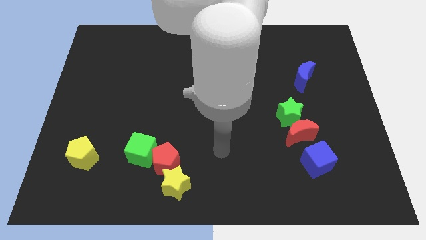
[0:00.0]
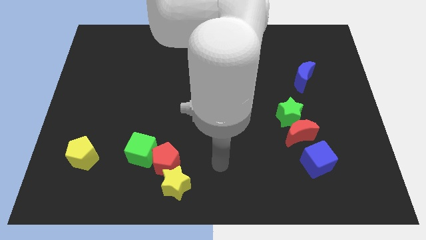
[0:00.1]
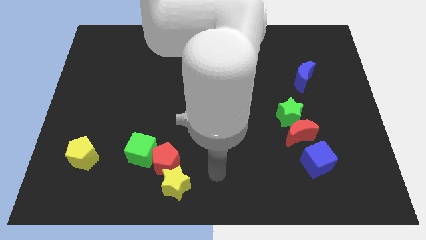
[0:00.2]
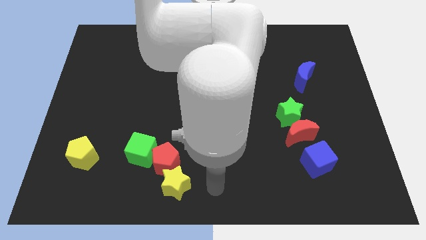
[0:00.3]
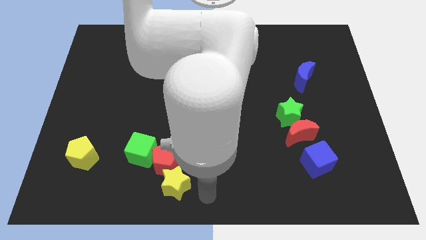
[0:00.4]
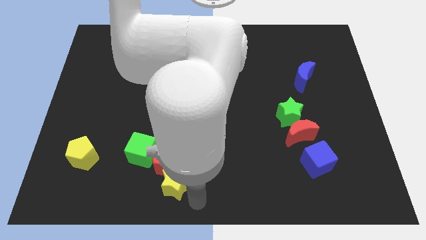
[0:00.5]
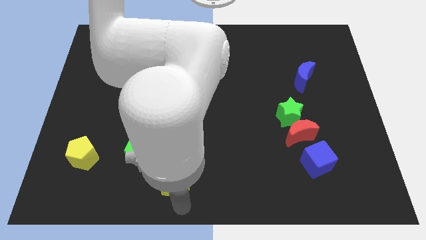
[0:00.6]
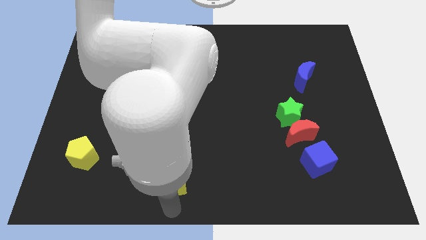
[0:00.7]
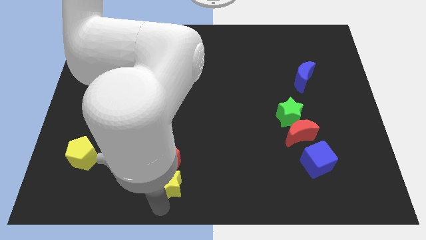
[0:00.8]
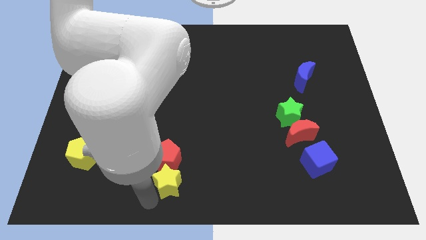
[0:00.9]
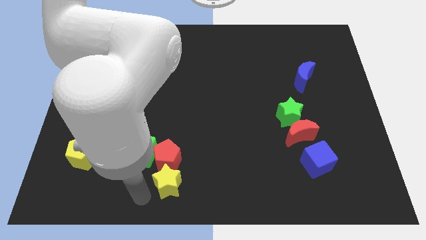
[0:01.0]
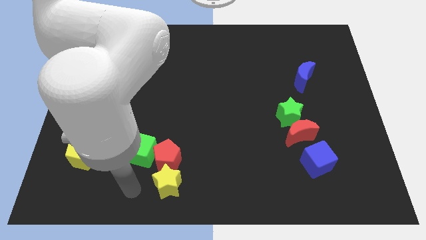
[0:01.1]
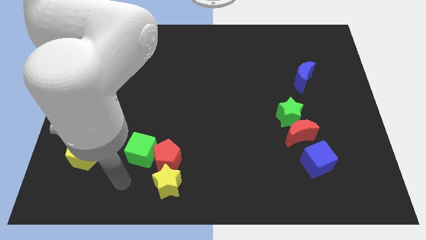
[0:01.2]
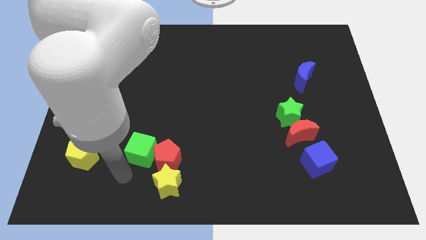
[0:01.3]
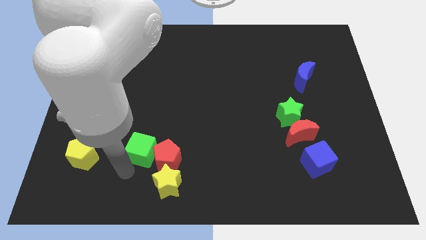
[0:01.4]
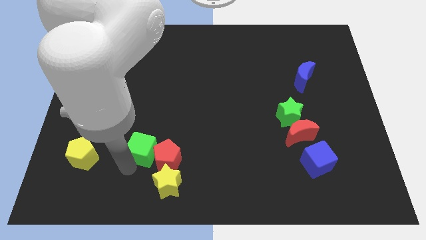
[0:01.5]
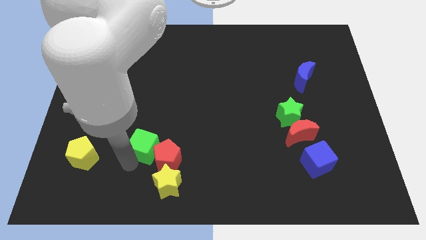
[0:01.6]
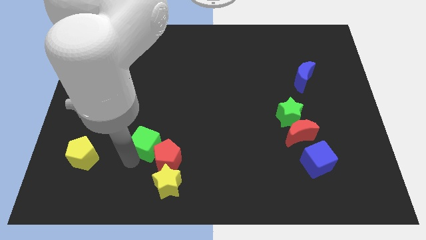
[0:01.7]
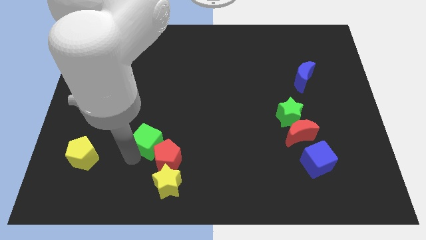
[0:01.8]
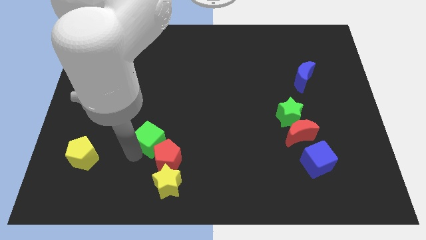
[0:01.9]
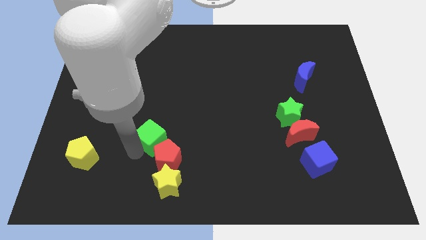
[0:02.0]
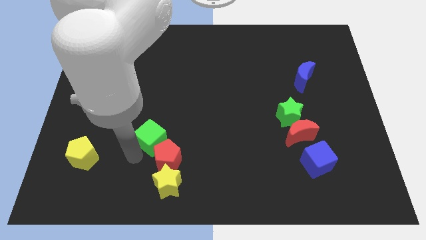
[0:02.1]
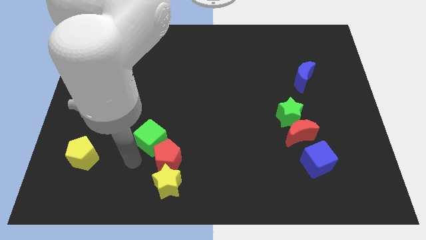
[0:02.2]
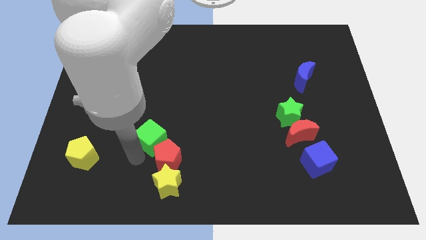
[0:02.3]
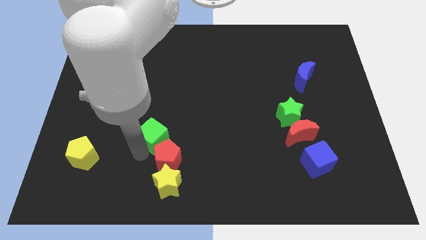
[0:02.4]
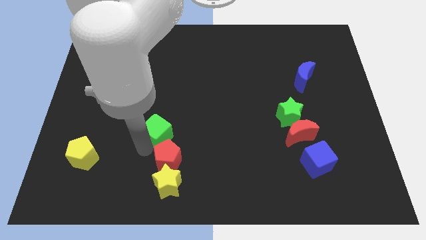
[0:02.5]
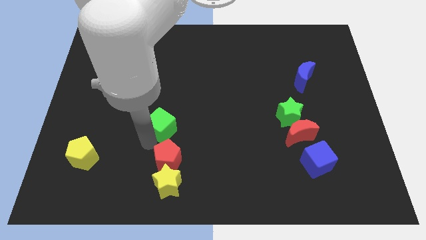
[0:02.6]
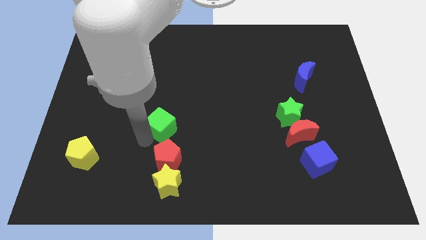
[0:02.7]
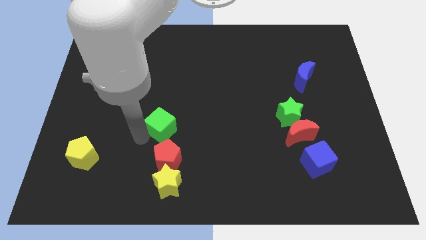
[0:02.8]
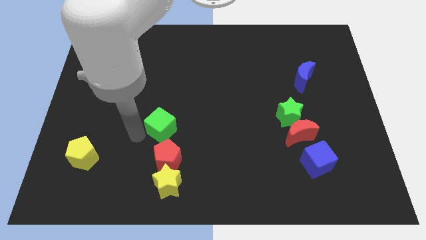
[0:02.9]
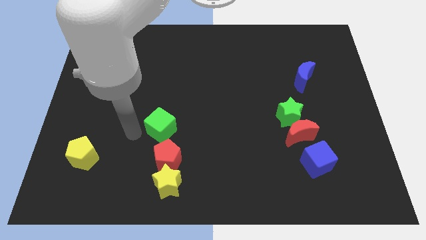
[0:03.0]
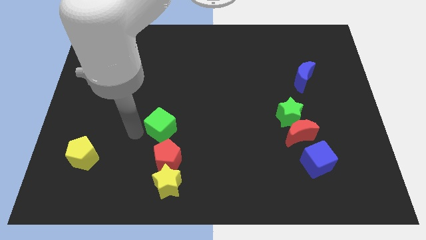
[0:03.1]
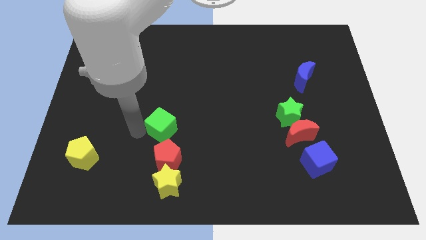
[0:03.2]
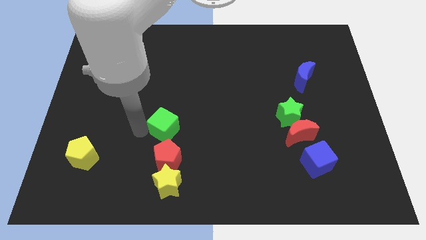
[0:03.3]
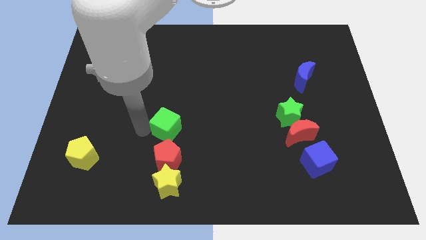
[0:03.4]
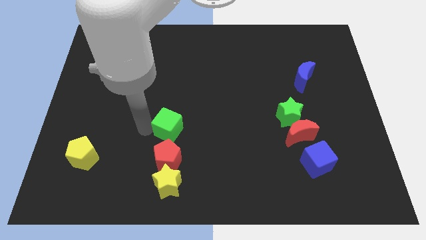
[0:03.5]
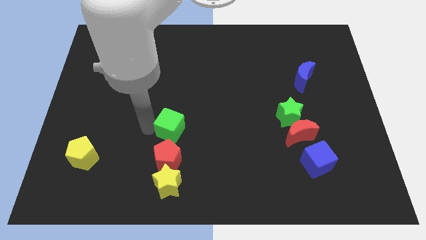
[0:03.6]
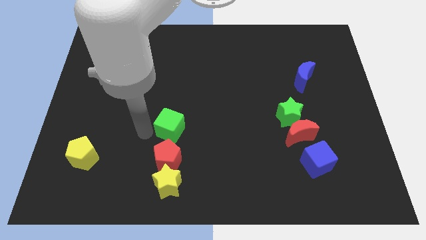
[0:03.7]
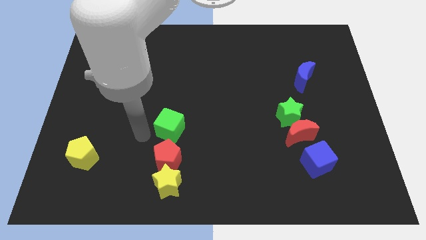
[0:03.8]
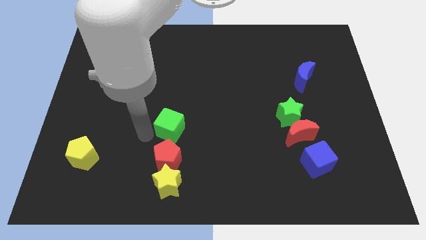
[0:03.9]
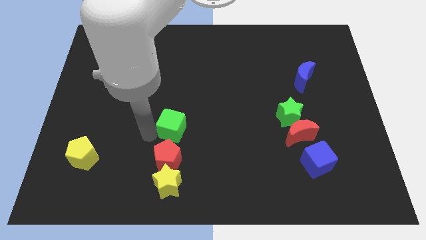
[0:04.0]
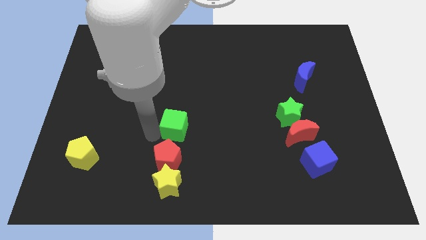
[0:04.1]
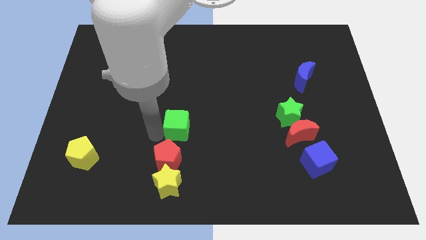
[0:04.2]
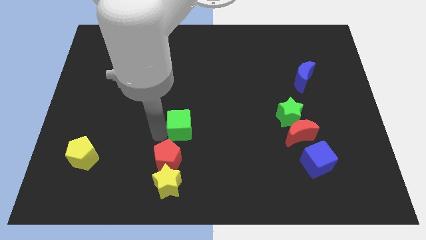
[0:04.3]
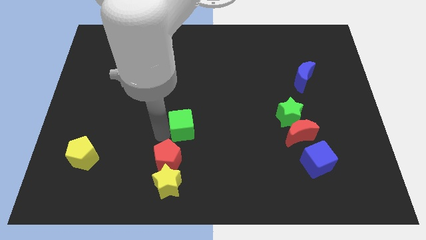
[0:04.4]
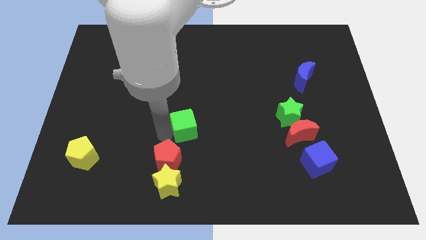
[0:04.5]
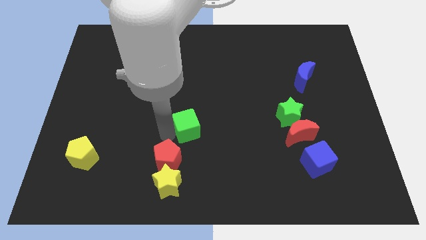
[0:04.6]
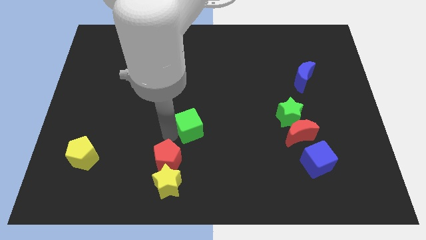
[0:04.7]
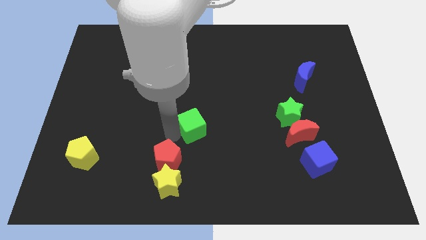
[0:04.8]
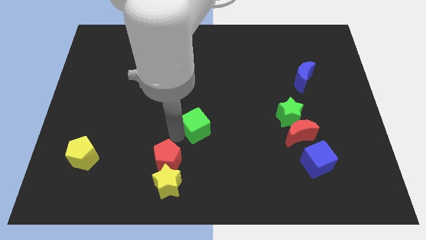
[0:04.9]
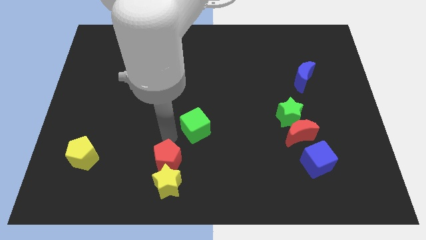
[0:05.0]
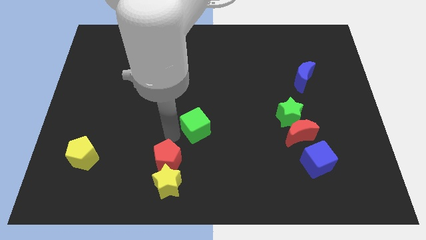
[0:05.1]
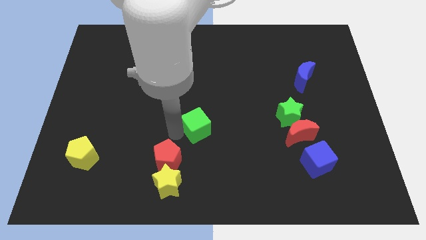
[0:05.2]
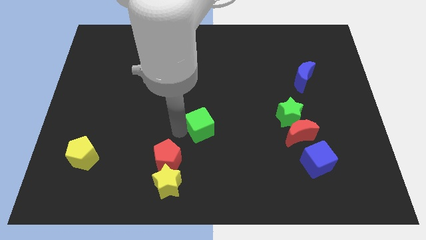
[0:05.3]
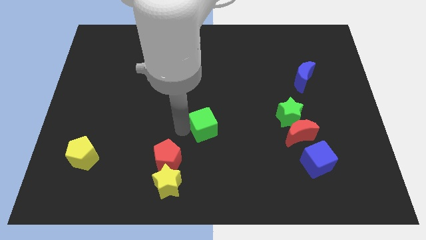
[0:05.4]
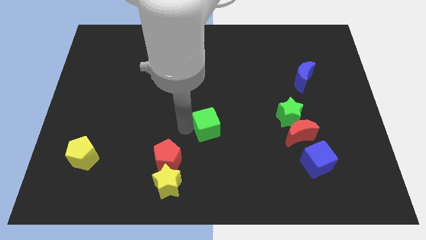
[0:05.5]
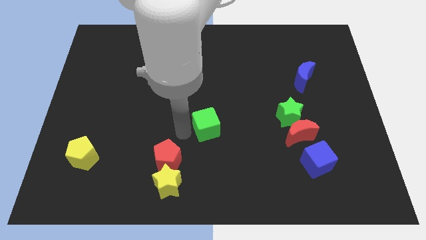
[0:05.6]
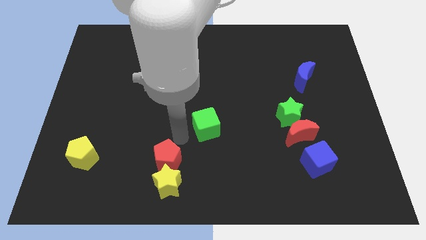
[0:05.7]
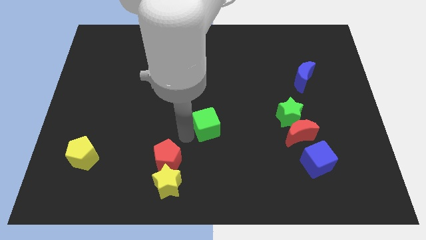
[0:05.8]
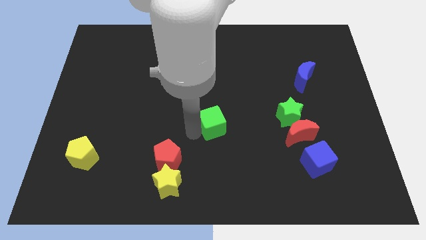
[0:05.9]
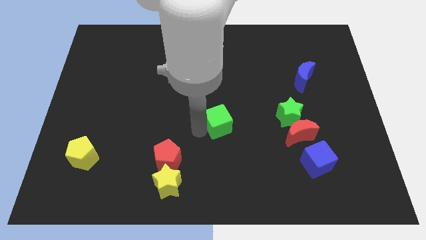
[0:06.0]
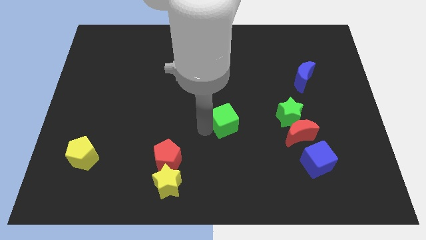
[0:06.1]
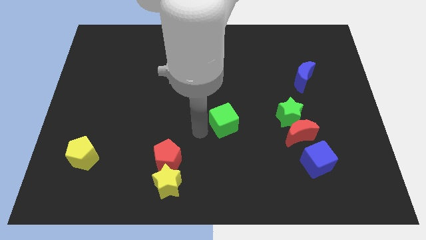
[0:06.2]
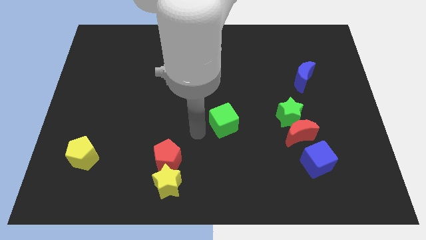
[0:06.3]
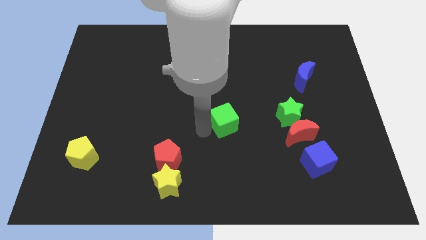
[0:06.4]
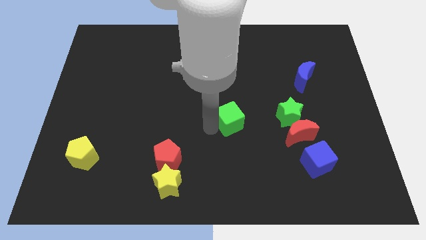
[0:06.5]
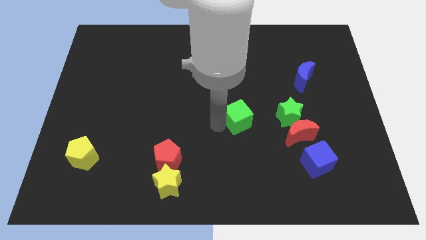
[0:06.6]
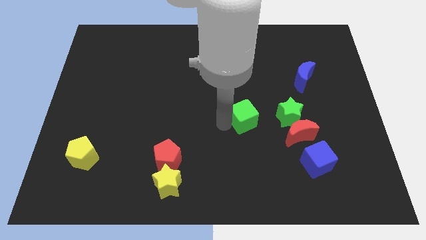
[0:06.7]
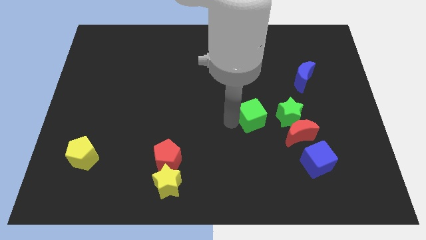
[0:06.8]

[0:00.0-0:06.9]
slide the green cube to the top left of the red moon

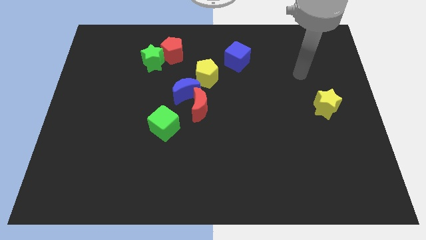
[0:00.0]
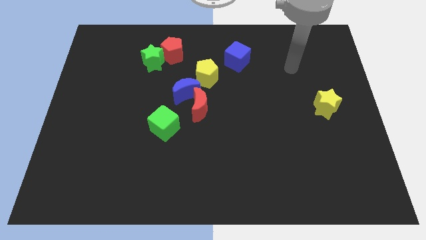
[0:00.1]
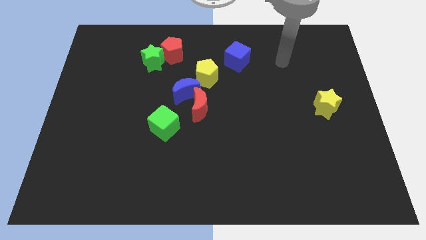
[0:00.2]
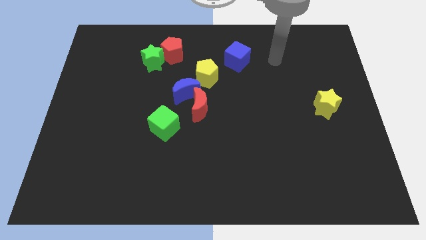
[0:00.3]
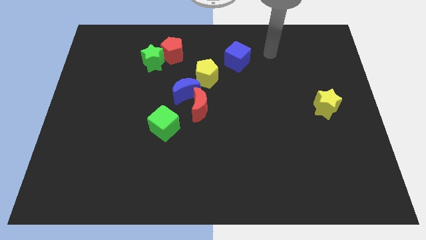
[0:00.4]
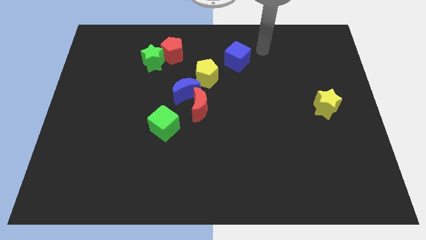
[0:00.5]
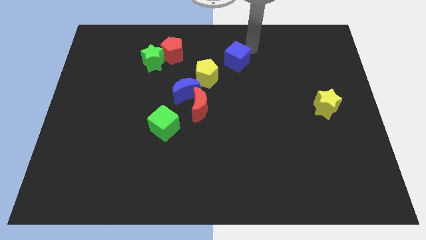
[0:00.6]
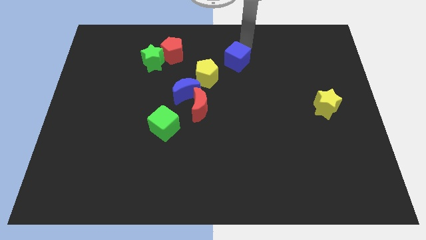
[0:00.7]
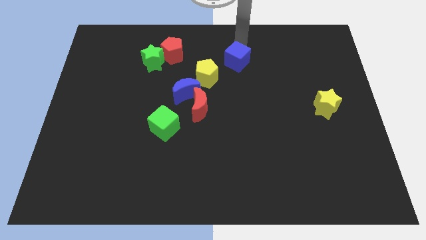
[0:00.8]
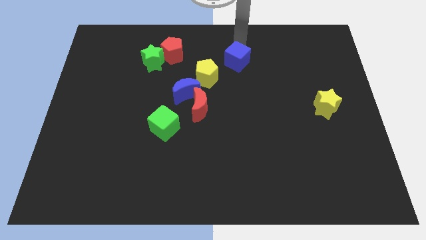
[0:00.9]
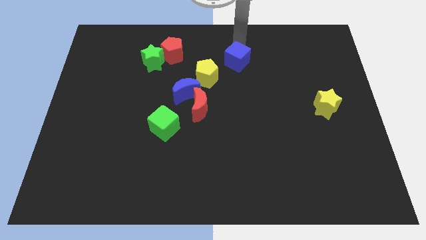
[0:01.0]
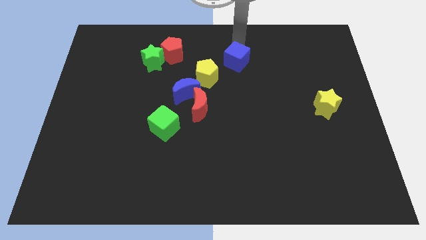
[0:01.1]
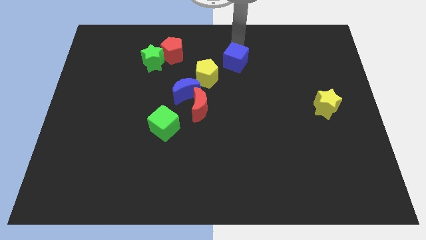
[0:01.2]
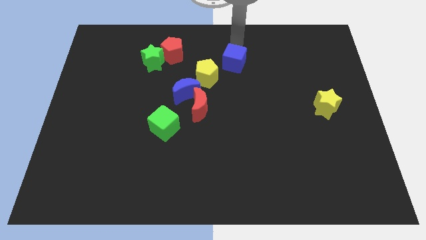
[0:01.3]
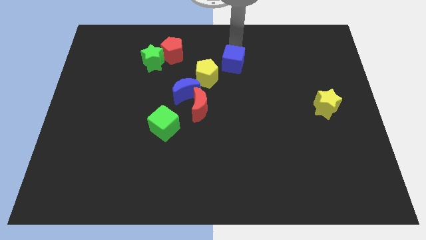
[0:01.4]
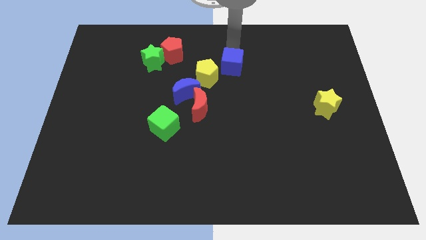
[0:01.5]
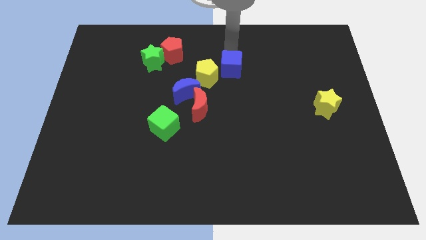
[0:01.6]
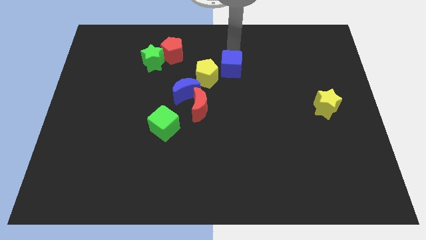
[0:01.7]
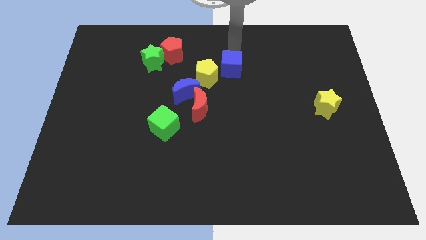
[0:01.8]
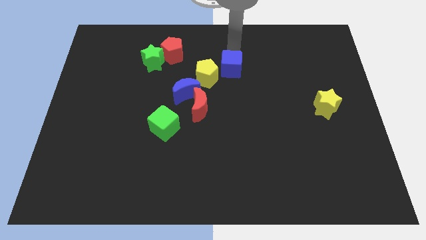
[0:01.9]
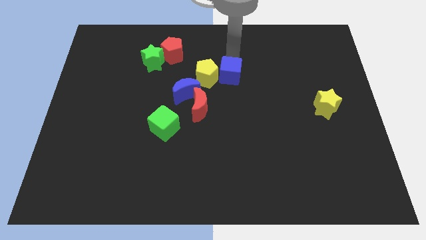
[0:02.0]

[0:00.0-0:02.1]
put the blue cube to the bottom right of the yellow pentagon
